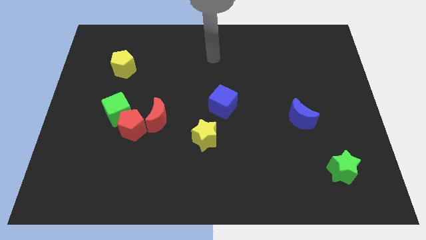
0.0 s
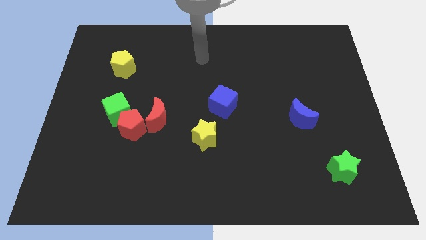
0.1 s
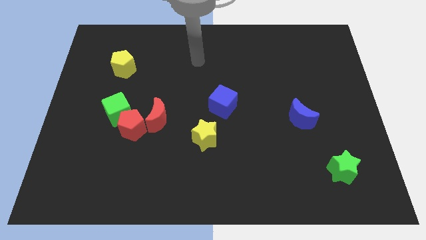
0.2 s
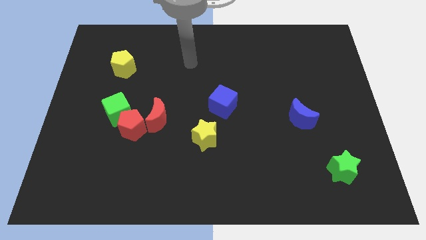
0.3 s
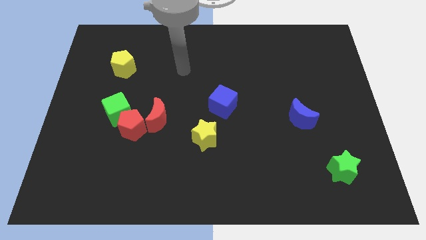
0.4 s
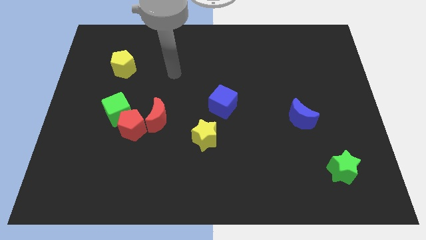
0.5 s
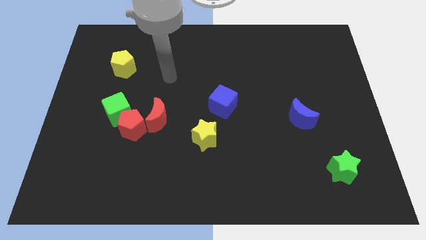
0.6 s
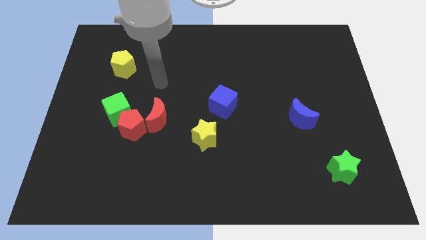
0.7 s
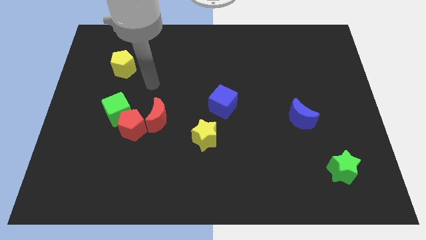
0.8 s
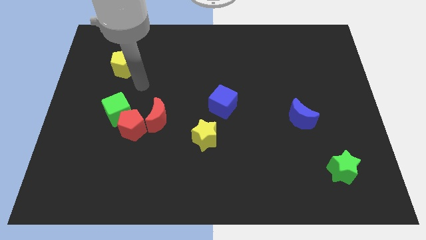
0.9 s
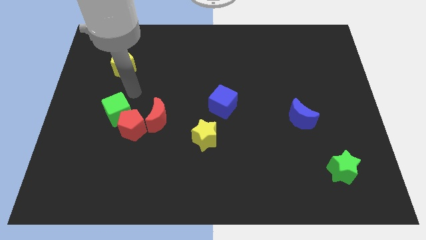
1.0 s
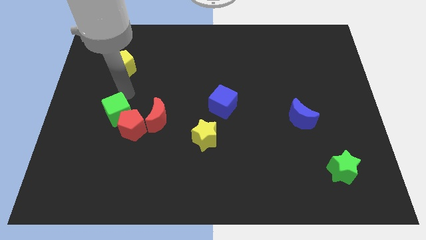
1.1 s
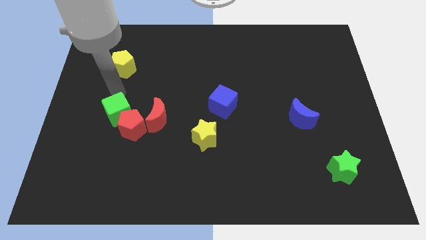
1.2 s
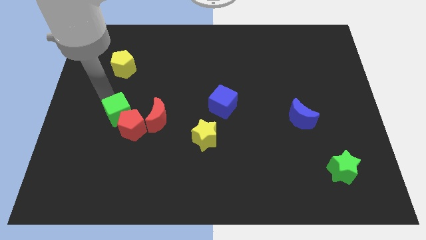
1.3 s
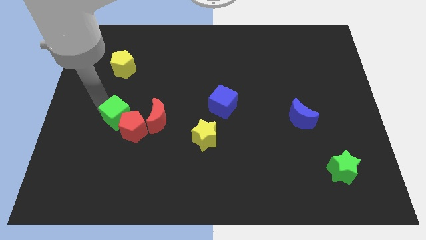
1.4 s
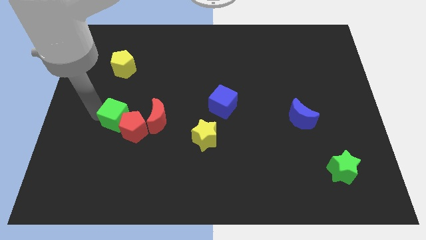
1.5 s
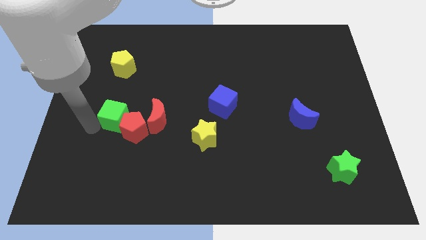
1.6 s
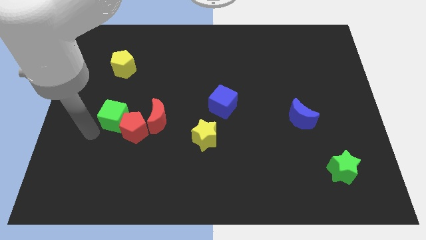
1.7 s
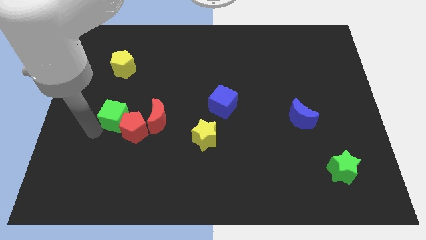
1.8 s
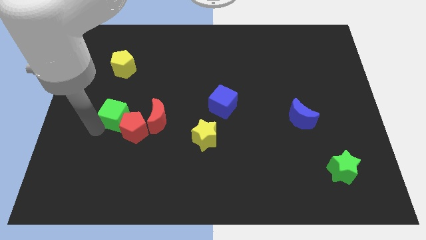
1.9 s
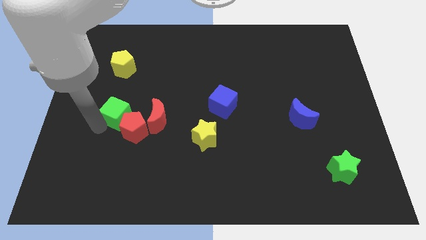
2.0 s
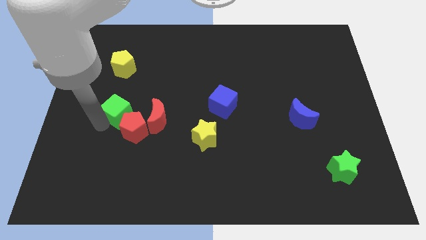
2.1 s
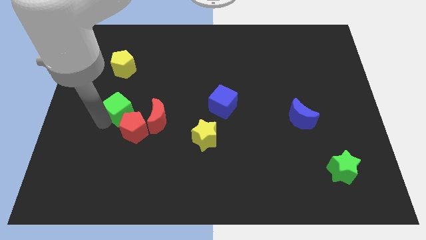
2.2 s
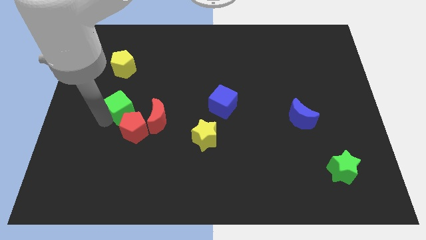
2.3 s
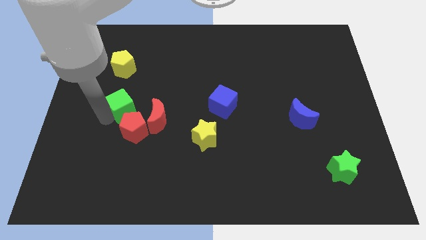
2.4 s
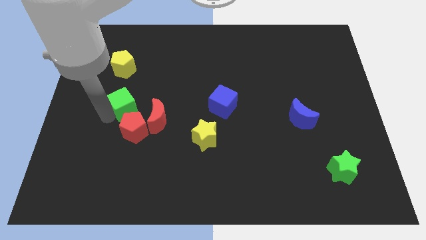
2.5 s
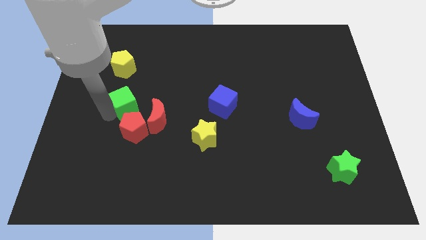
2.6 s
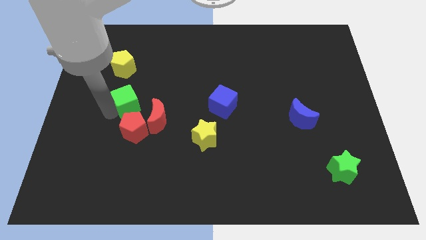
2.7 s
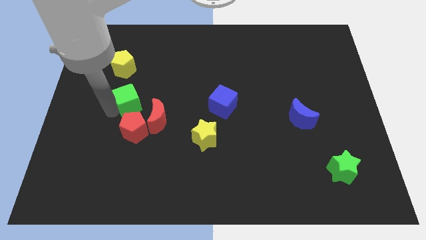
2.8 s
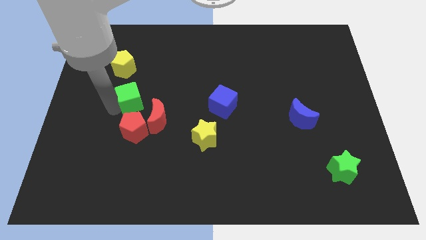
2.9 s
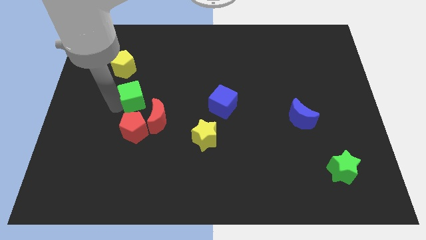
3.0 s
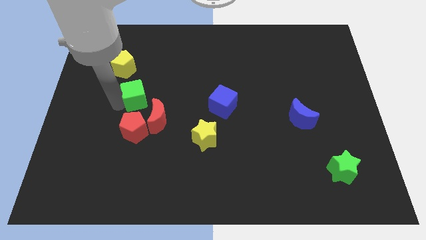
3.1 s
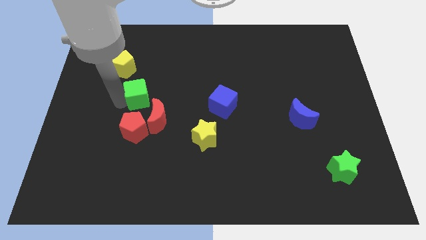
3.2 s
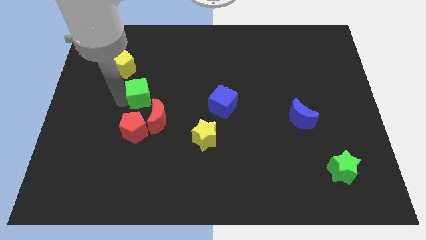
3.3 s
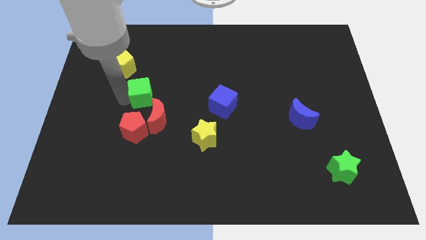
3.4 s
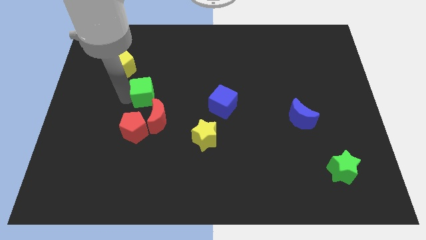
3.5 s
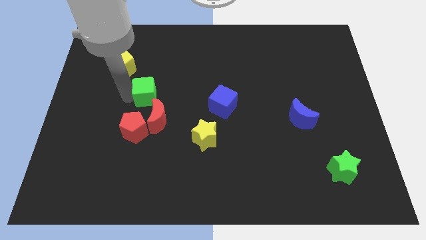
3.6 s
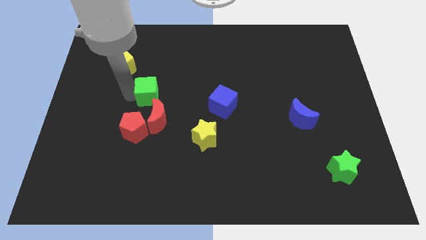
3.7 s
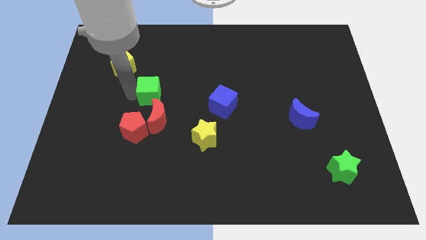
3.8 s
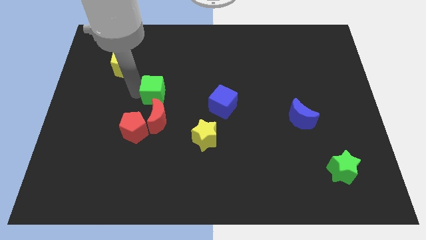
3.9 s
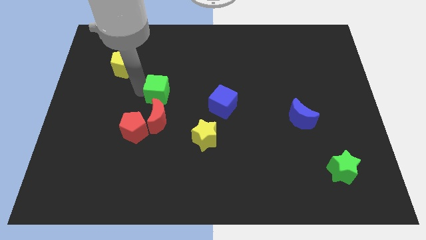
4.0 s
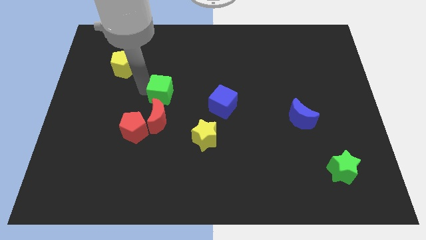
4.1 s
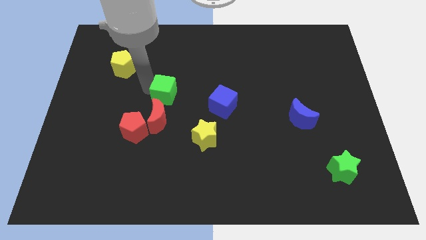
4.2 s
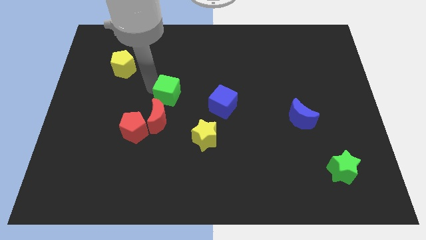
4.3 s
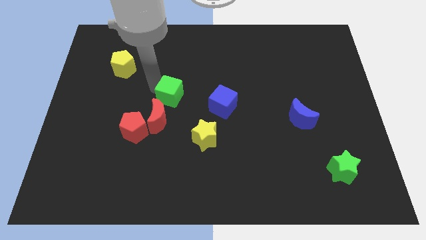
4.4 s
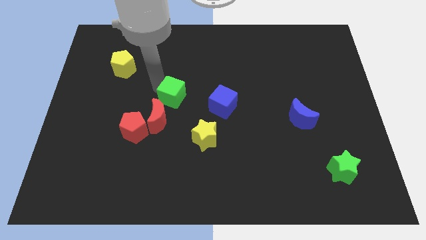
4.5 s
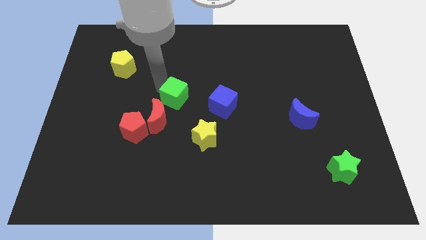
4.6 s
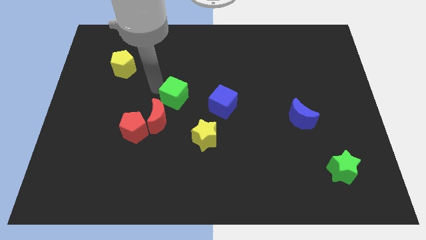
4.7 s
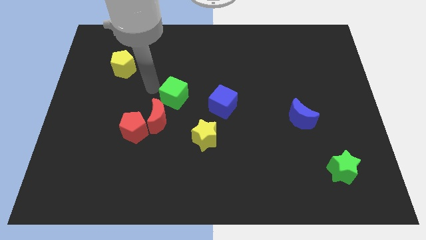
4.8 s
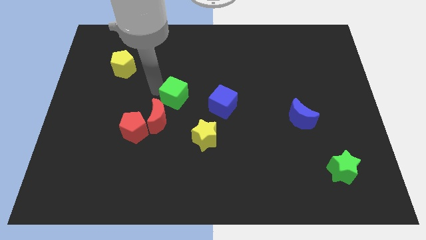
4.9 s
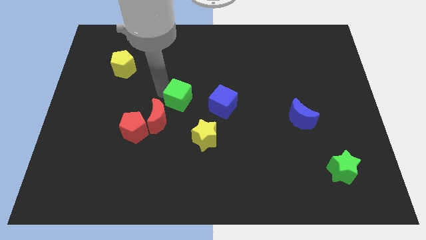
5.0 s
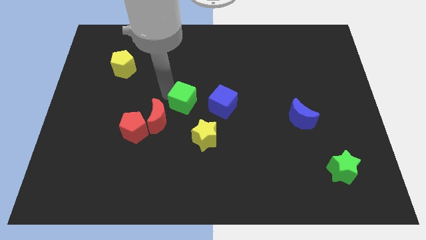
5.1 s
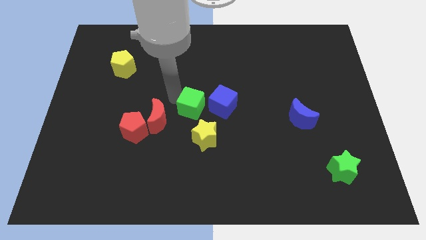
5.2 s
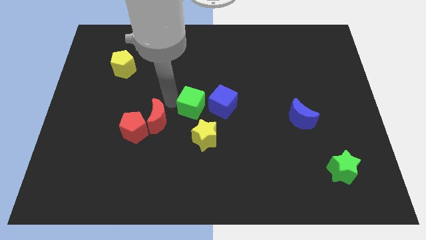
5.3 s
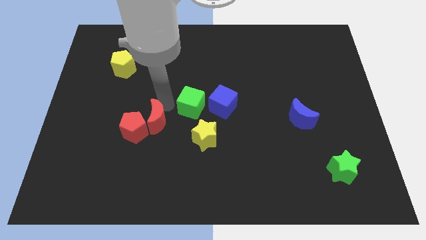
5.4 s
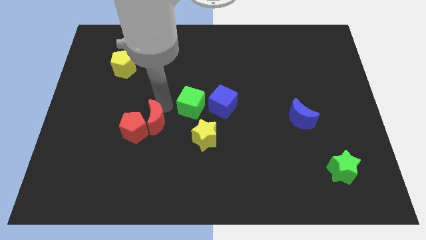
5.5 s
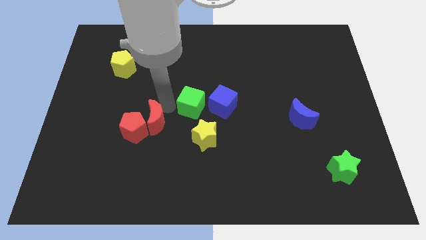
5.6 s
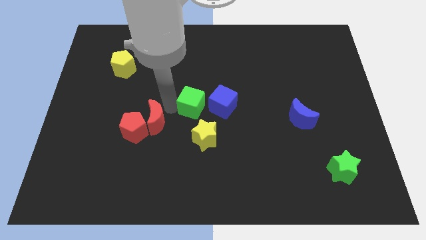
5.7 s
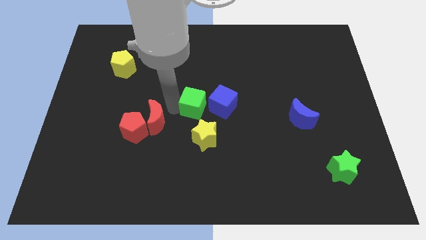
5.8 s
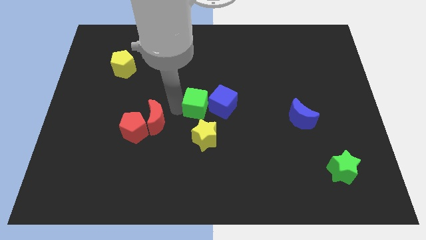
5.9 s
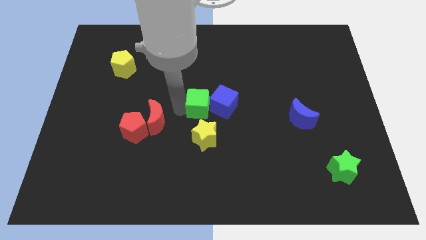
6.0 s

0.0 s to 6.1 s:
slide the green cube to the blue cube

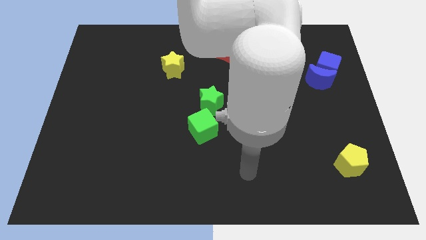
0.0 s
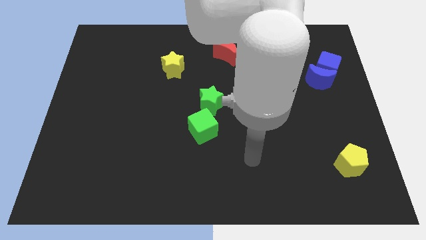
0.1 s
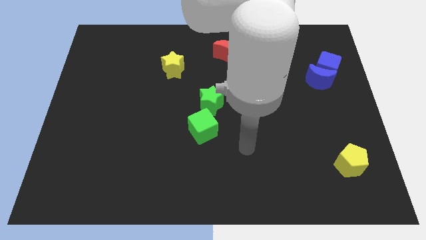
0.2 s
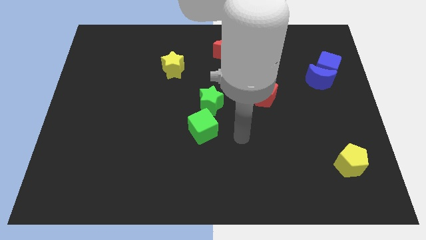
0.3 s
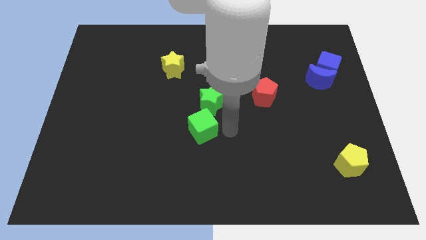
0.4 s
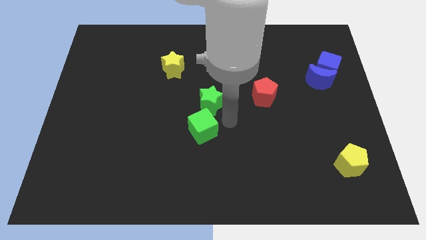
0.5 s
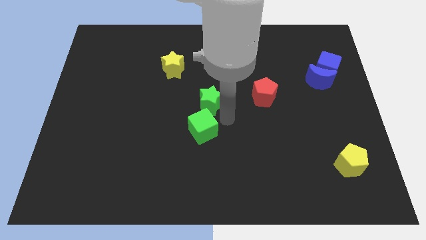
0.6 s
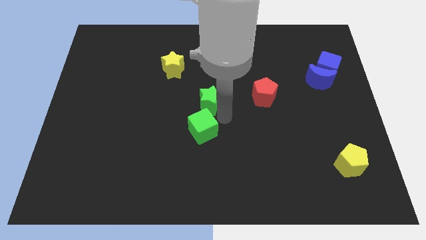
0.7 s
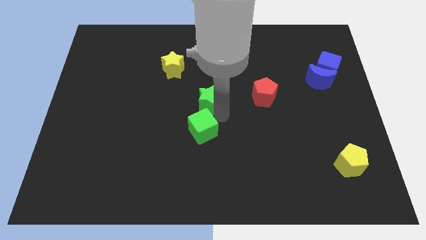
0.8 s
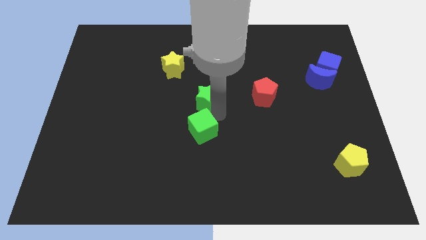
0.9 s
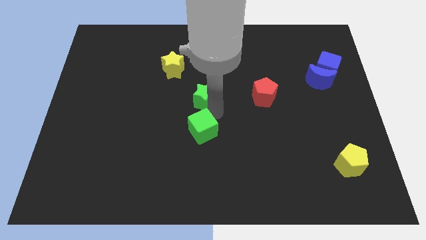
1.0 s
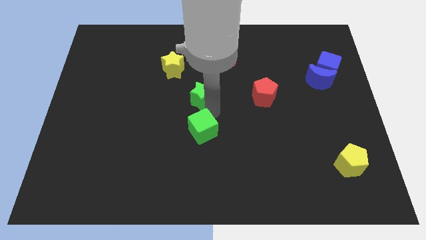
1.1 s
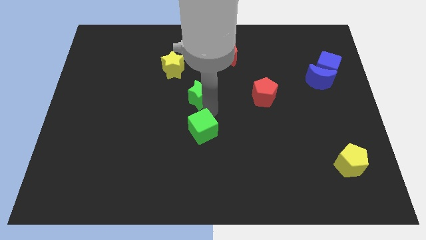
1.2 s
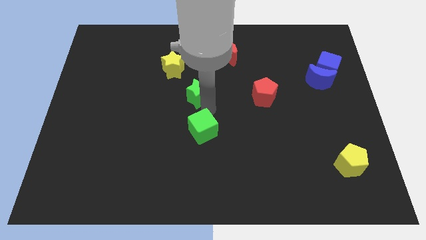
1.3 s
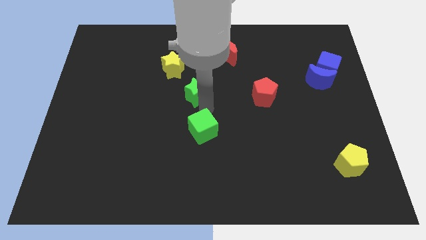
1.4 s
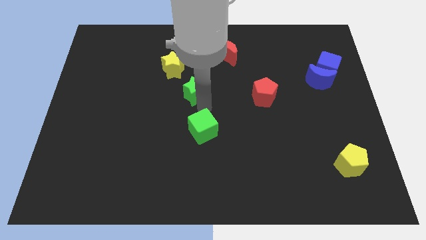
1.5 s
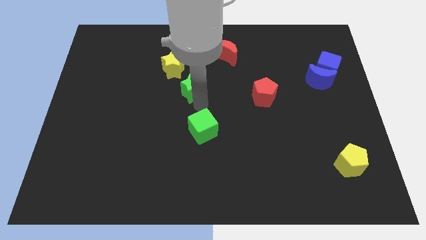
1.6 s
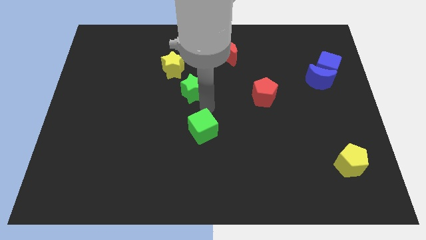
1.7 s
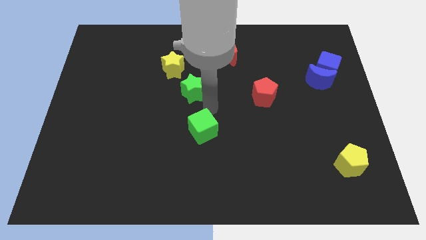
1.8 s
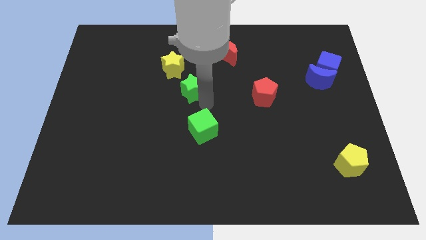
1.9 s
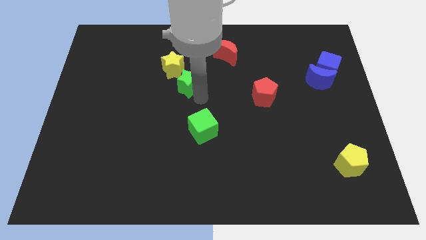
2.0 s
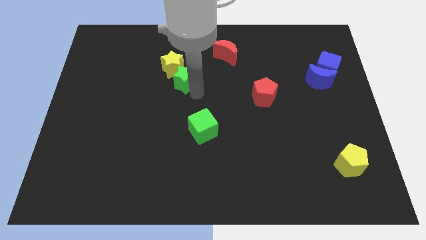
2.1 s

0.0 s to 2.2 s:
put the green star towards the yellow star
